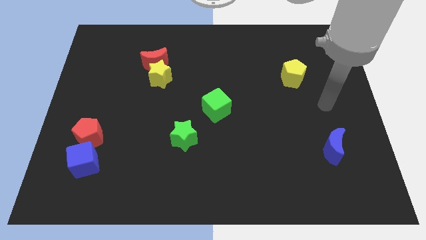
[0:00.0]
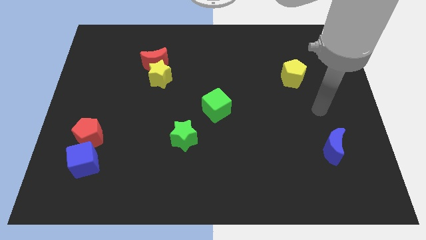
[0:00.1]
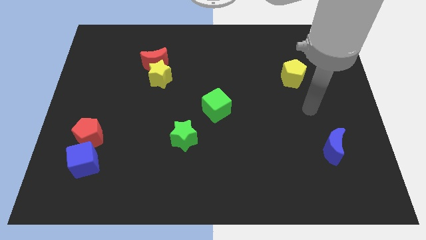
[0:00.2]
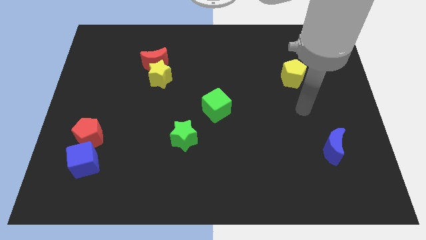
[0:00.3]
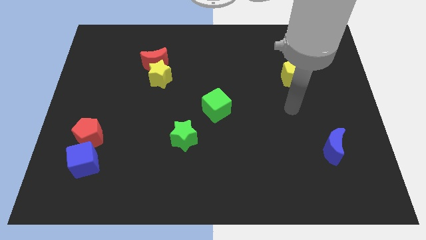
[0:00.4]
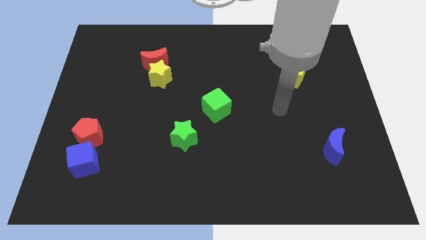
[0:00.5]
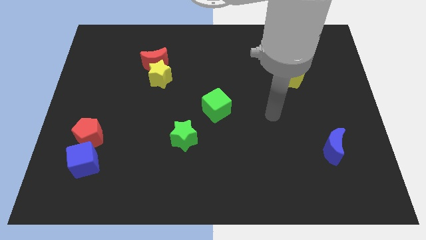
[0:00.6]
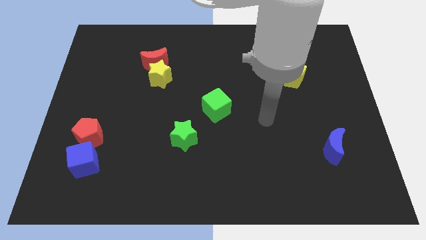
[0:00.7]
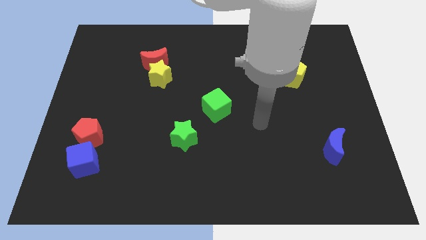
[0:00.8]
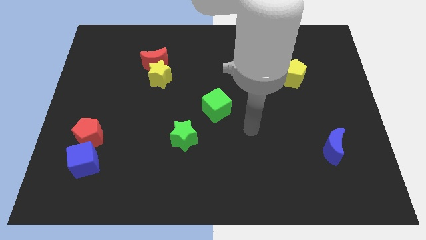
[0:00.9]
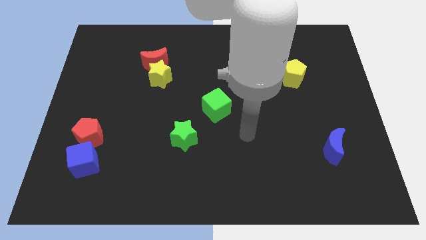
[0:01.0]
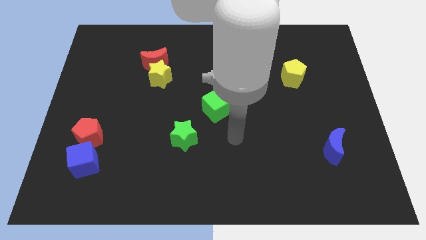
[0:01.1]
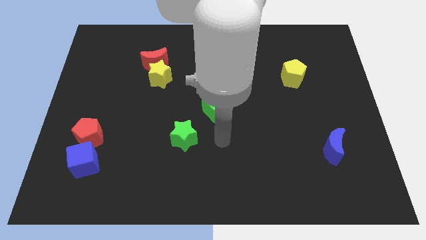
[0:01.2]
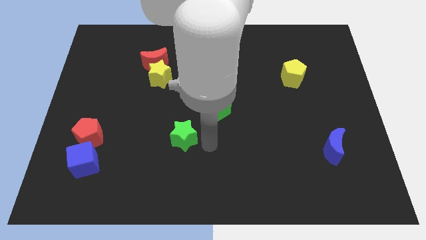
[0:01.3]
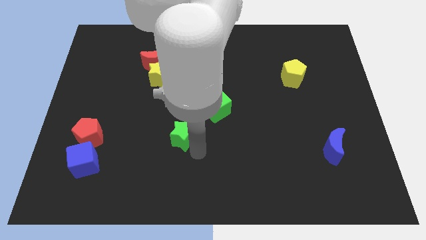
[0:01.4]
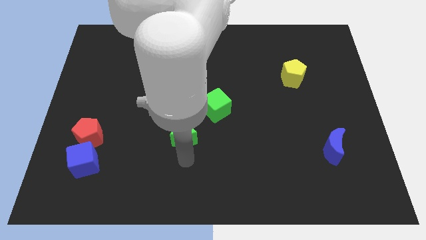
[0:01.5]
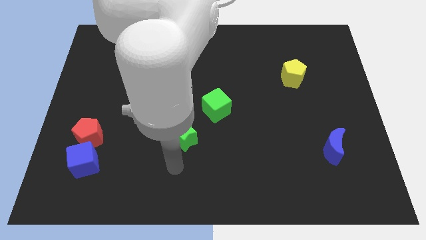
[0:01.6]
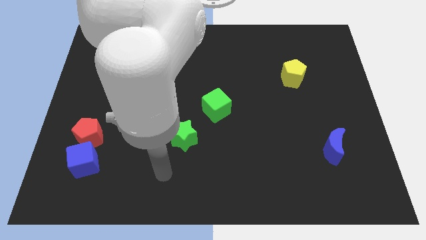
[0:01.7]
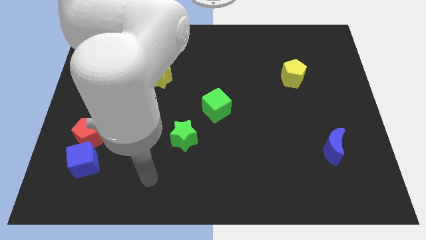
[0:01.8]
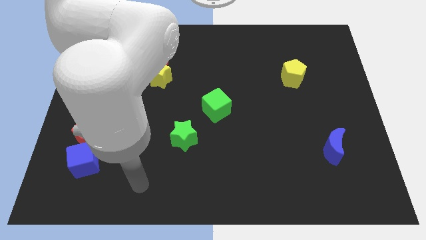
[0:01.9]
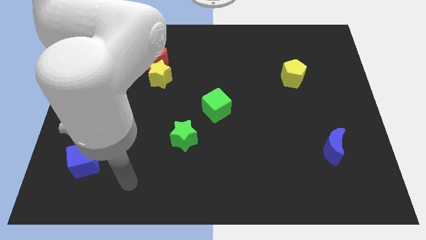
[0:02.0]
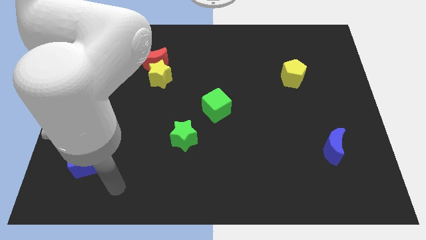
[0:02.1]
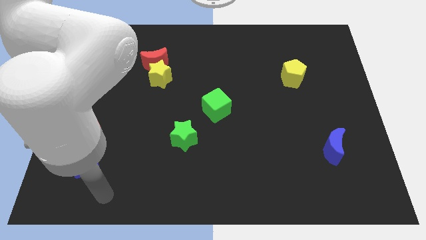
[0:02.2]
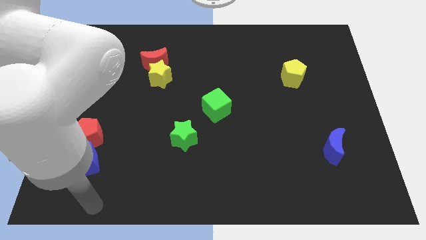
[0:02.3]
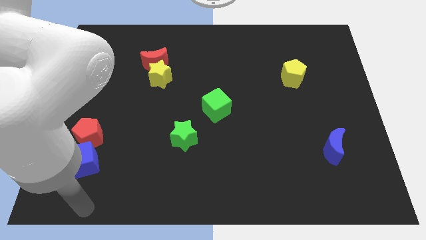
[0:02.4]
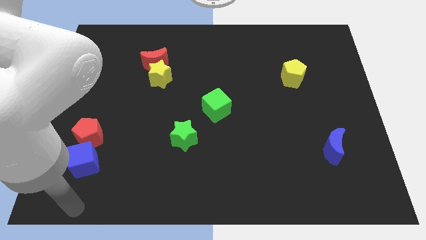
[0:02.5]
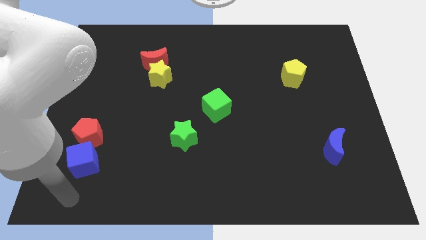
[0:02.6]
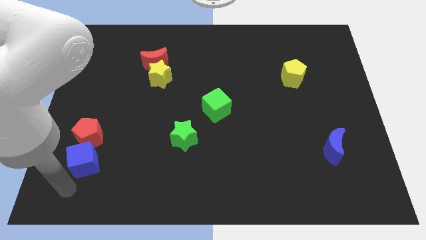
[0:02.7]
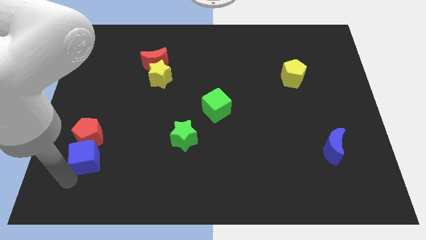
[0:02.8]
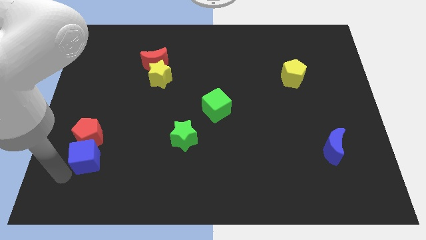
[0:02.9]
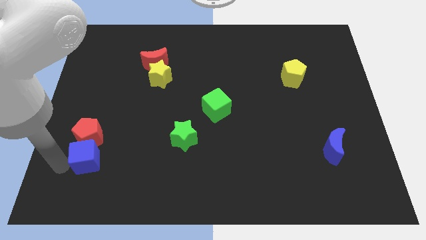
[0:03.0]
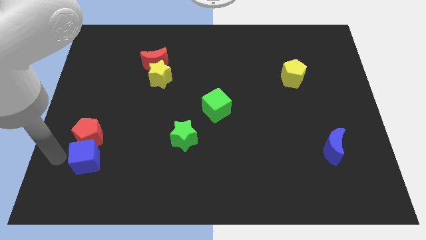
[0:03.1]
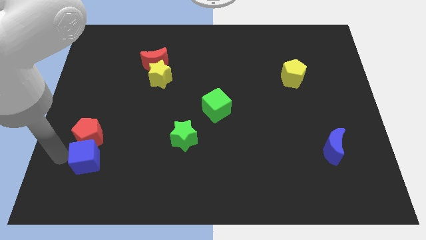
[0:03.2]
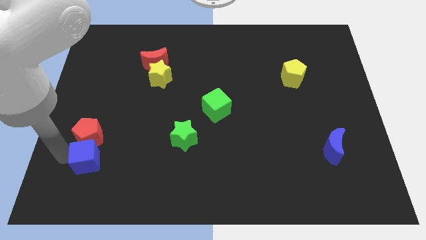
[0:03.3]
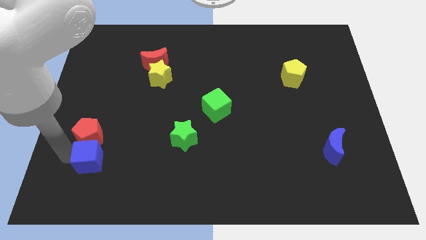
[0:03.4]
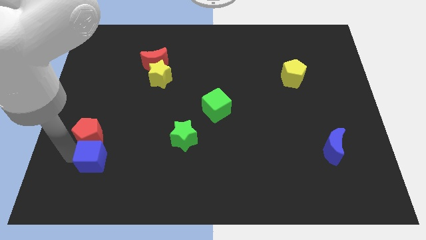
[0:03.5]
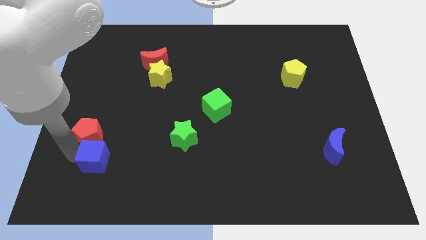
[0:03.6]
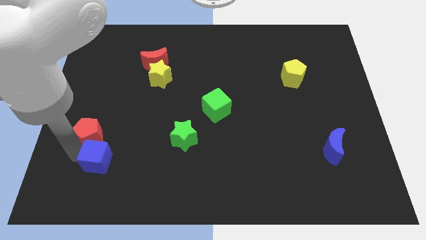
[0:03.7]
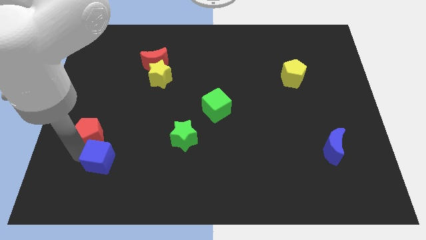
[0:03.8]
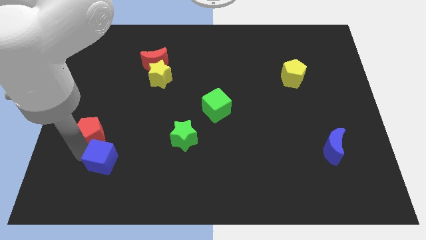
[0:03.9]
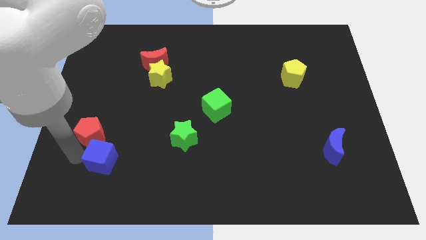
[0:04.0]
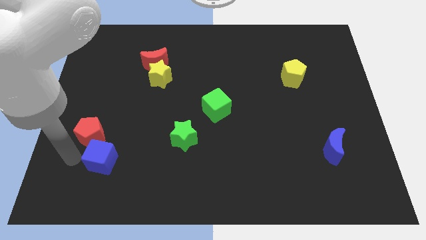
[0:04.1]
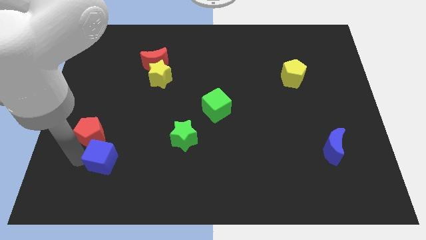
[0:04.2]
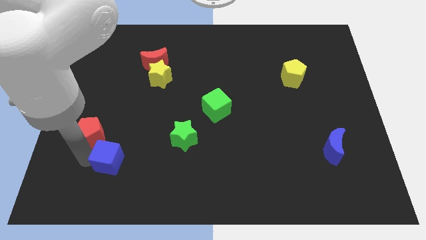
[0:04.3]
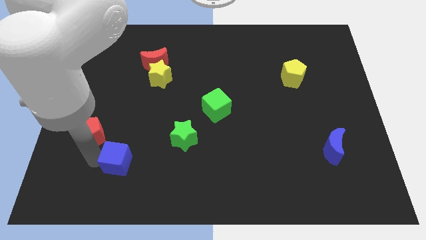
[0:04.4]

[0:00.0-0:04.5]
slightly push the blue cube to the right

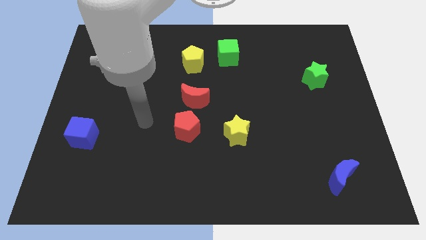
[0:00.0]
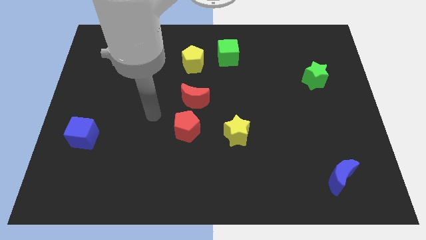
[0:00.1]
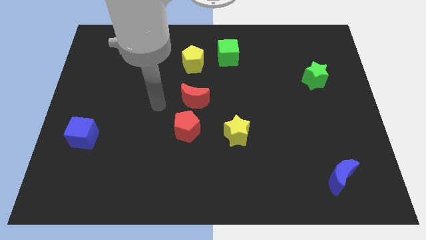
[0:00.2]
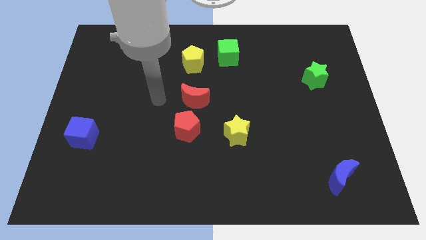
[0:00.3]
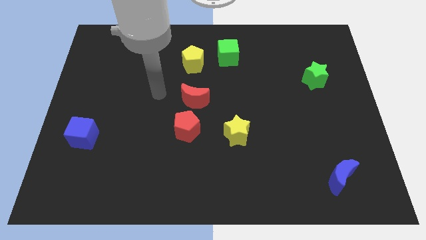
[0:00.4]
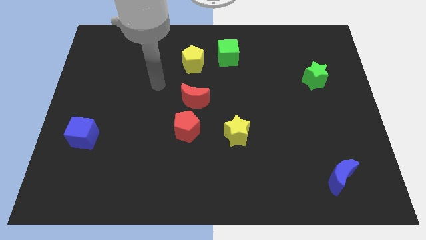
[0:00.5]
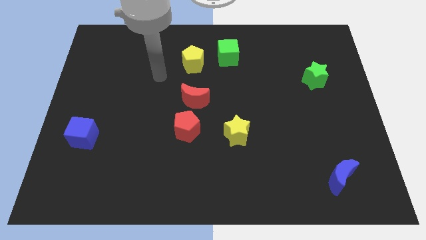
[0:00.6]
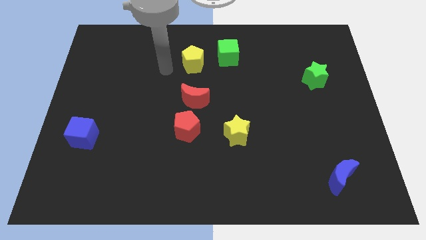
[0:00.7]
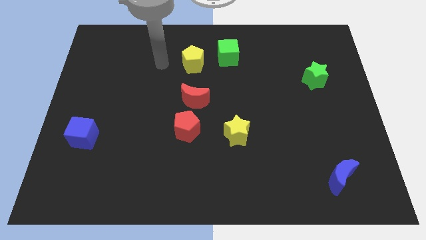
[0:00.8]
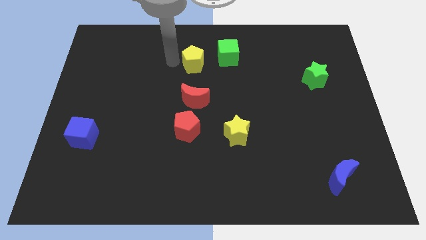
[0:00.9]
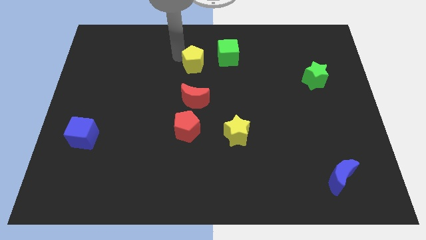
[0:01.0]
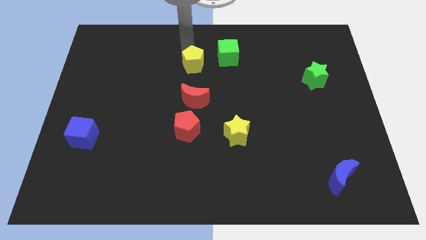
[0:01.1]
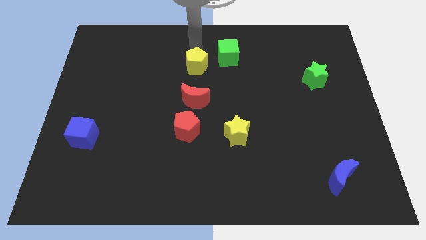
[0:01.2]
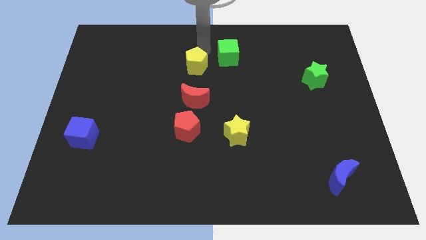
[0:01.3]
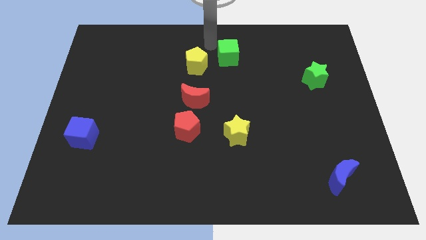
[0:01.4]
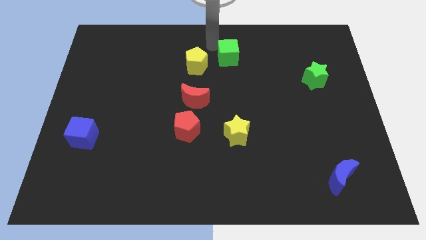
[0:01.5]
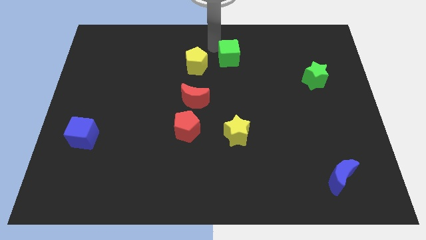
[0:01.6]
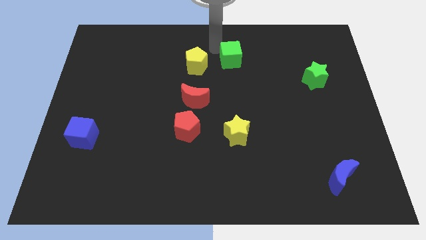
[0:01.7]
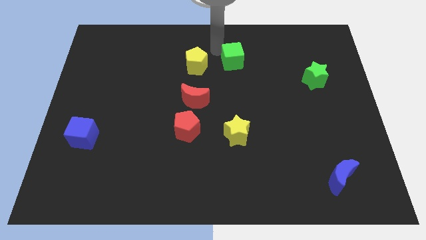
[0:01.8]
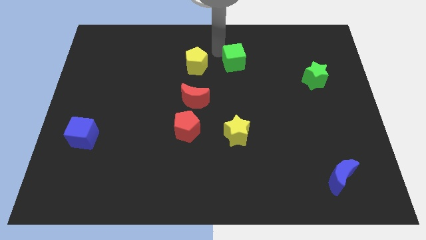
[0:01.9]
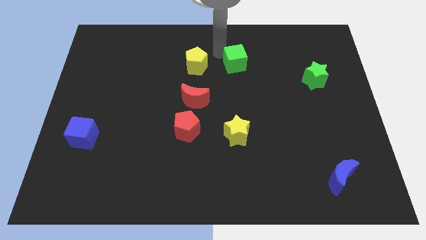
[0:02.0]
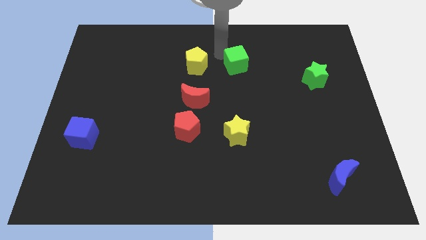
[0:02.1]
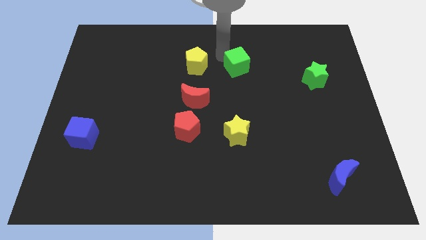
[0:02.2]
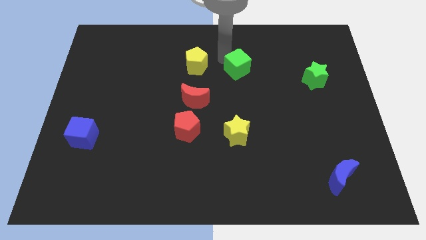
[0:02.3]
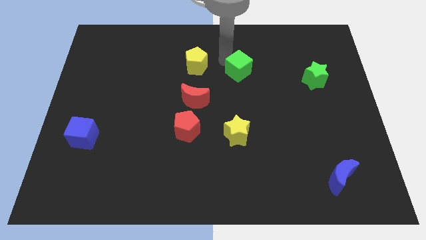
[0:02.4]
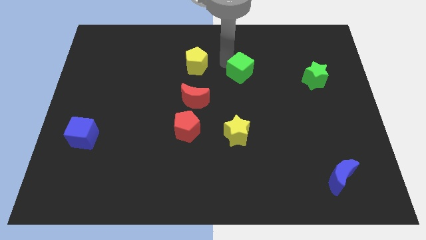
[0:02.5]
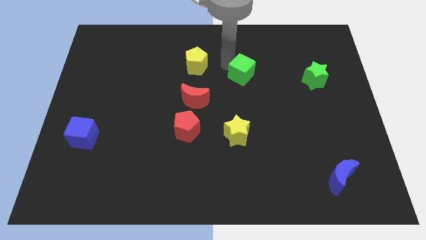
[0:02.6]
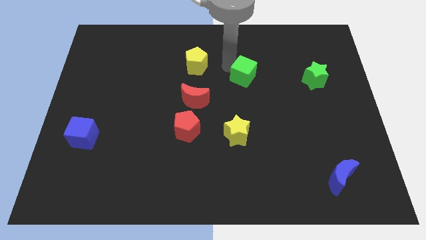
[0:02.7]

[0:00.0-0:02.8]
push the green cube down and then to the right somewhat

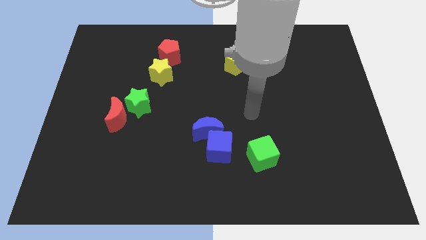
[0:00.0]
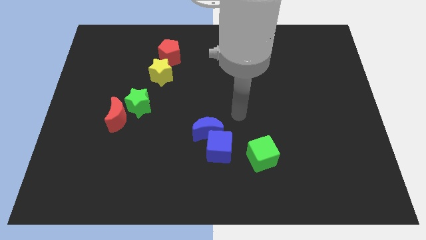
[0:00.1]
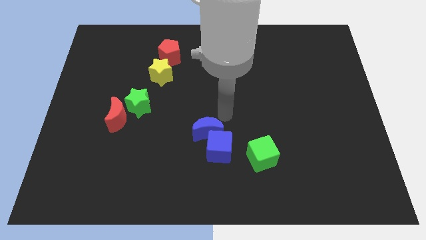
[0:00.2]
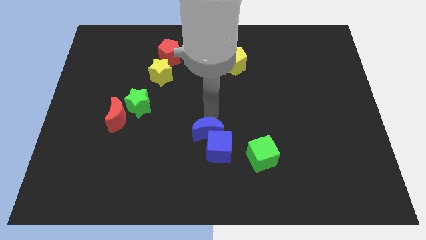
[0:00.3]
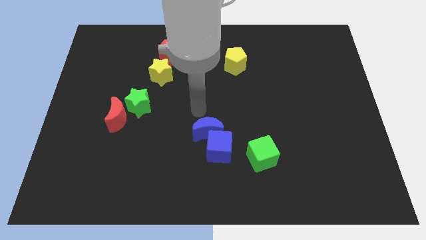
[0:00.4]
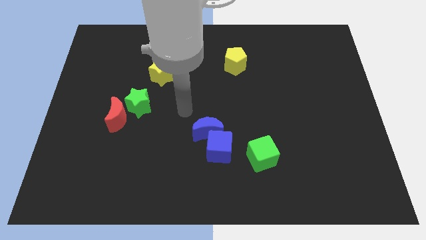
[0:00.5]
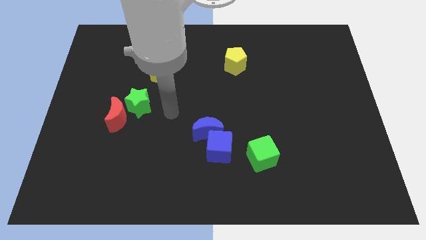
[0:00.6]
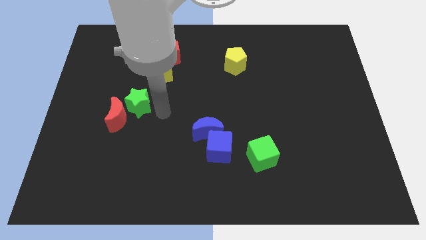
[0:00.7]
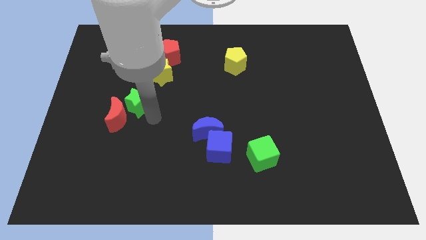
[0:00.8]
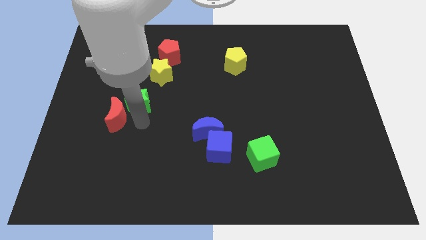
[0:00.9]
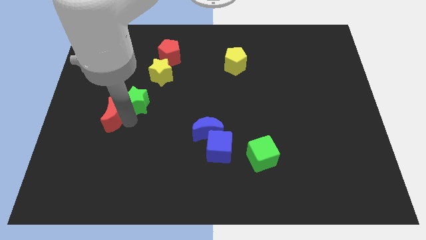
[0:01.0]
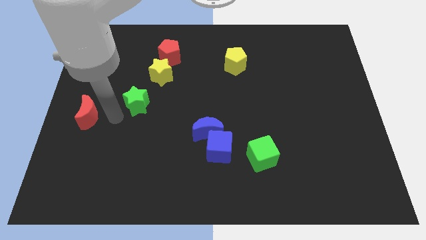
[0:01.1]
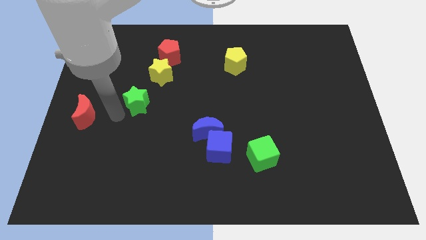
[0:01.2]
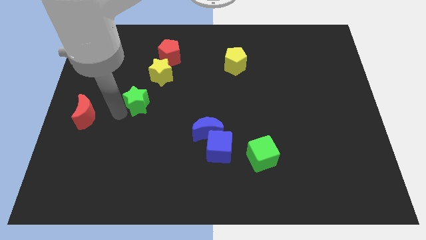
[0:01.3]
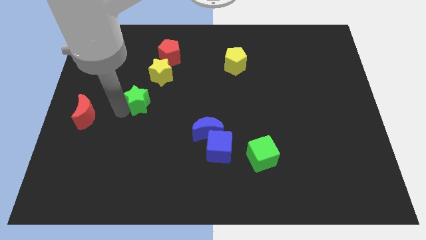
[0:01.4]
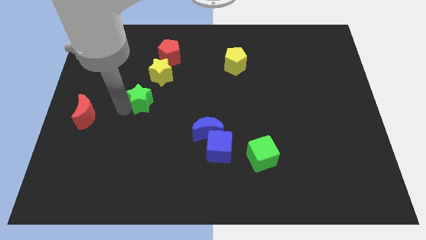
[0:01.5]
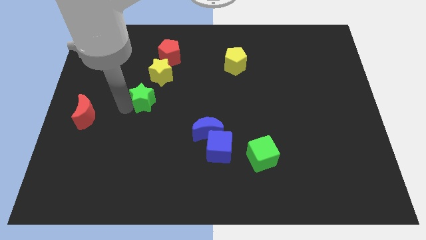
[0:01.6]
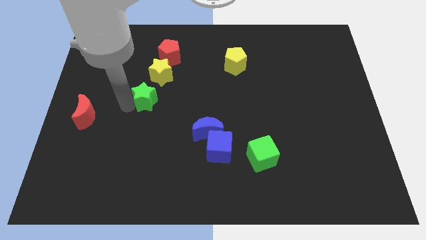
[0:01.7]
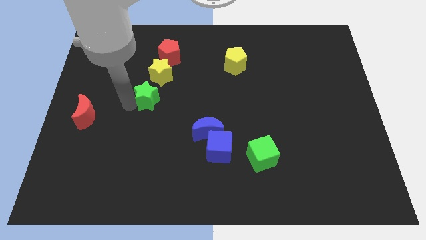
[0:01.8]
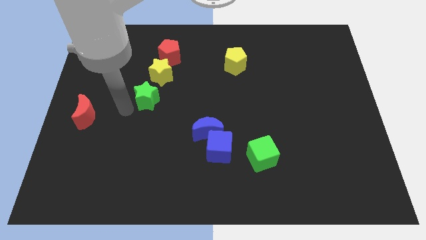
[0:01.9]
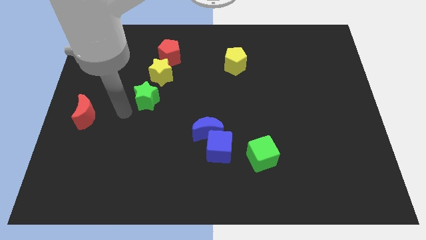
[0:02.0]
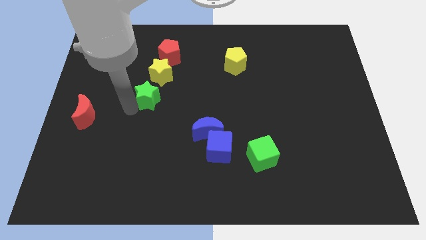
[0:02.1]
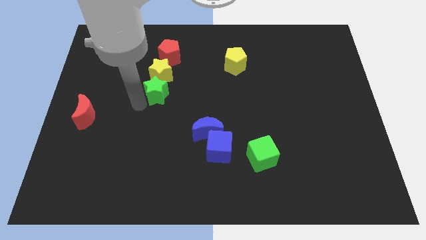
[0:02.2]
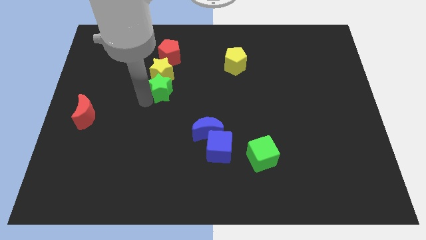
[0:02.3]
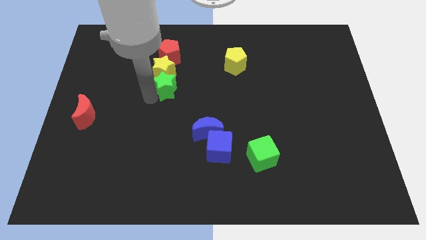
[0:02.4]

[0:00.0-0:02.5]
slightly slide the green star diagonally up and to the right
